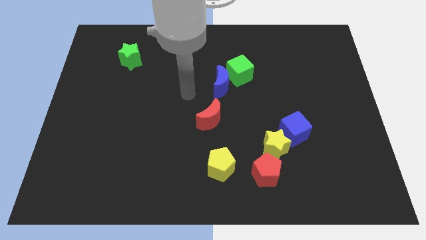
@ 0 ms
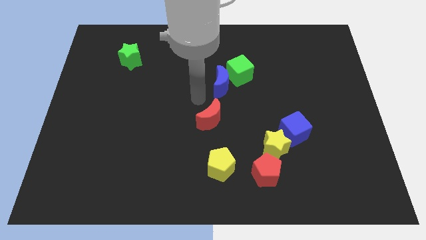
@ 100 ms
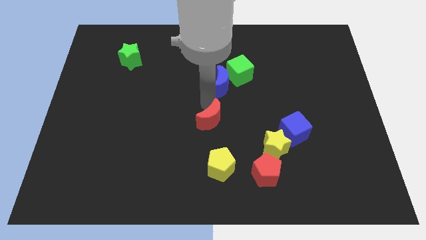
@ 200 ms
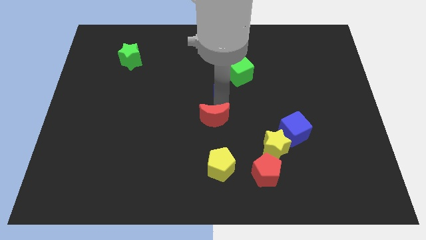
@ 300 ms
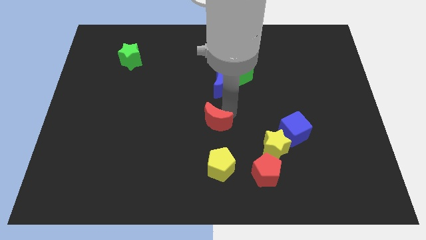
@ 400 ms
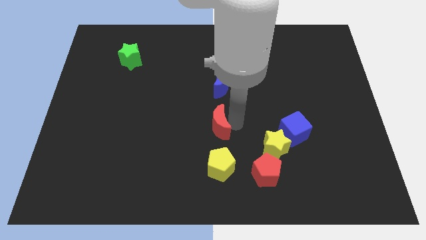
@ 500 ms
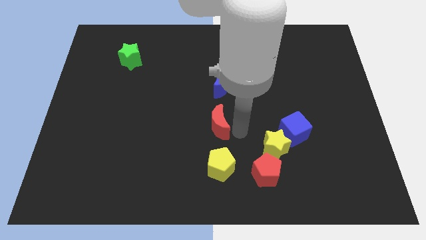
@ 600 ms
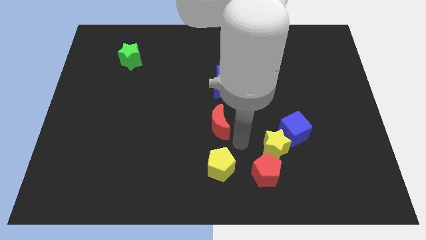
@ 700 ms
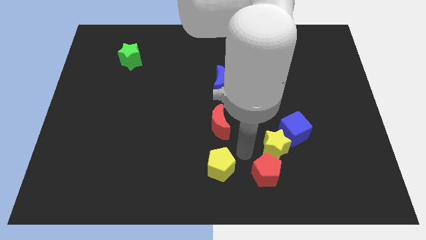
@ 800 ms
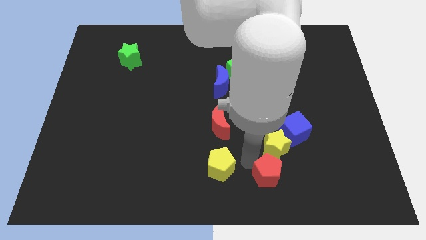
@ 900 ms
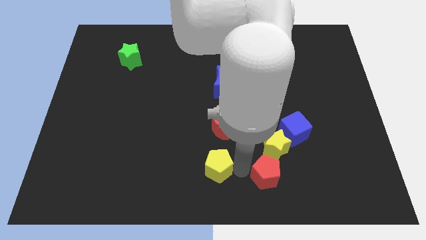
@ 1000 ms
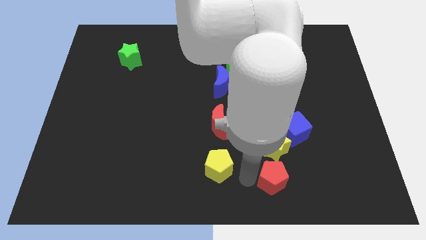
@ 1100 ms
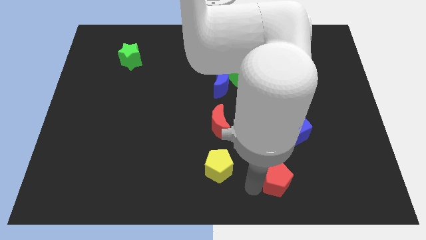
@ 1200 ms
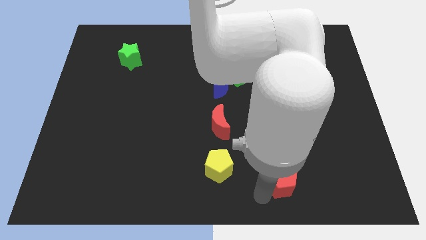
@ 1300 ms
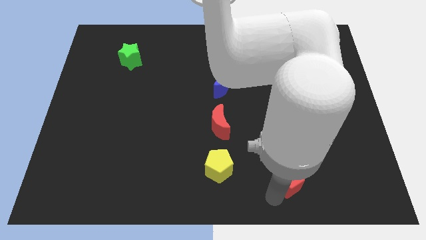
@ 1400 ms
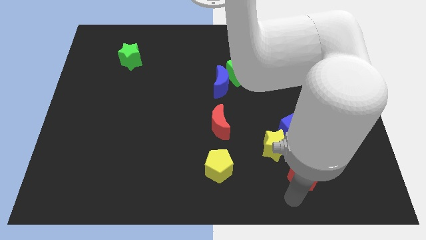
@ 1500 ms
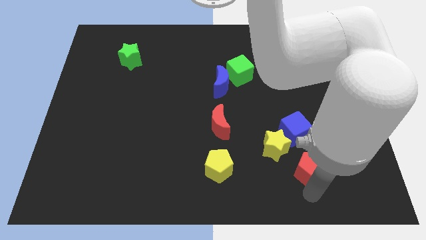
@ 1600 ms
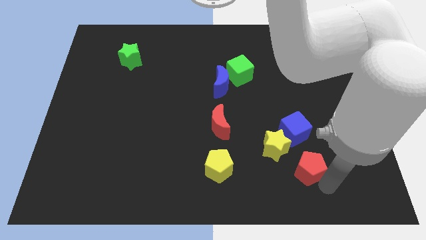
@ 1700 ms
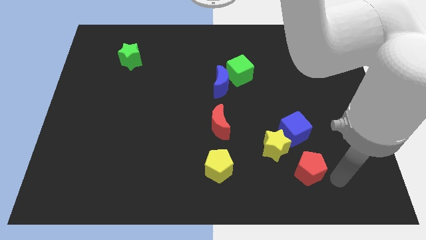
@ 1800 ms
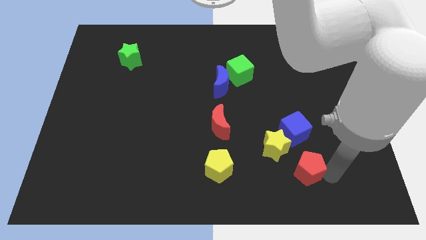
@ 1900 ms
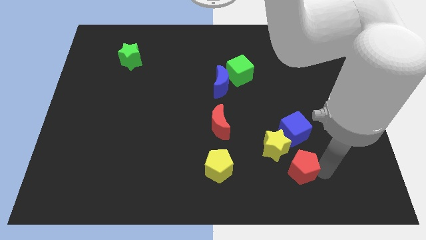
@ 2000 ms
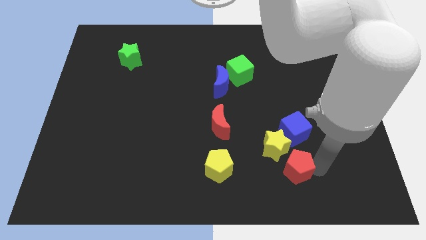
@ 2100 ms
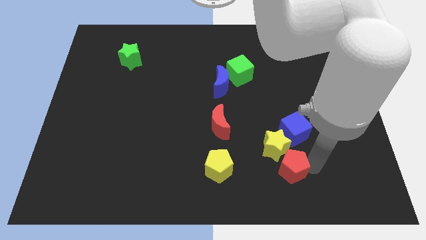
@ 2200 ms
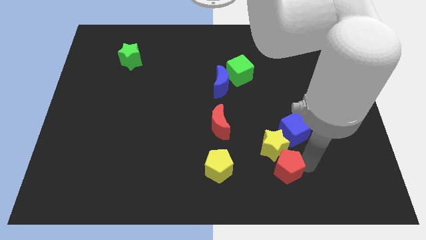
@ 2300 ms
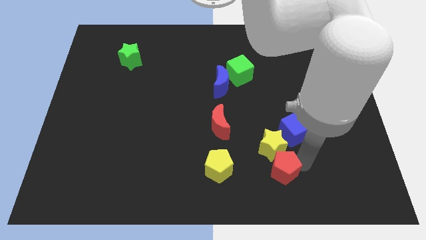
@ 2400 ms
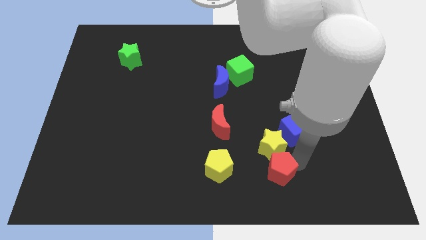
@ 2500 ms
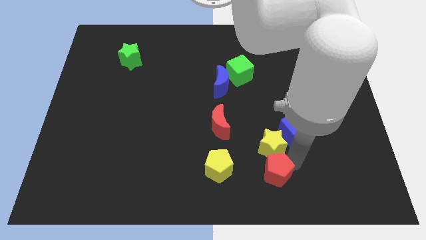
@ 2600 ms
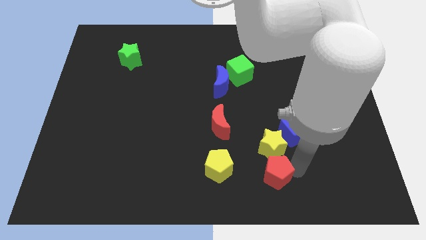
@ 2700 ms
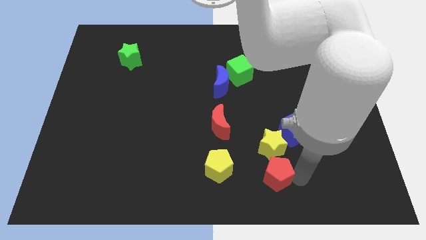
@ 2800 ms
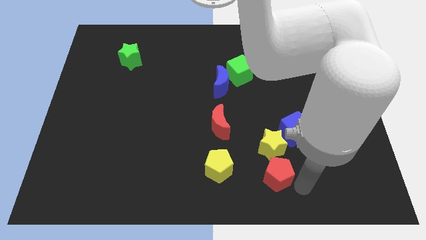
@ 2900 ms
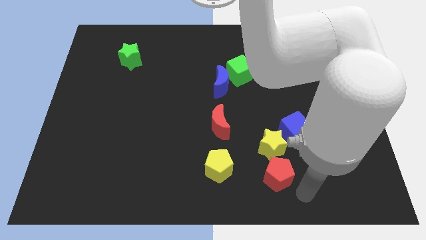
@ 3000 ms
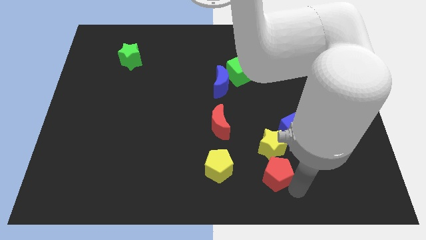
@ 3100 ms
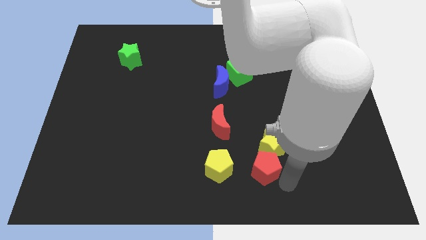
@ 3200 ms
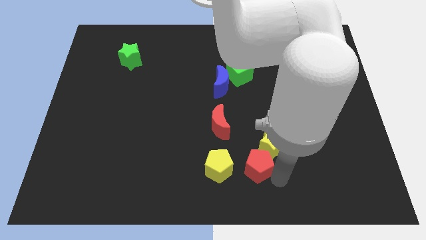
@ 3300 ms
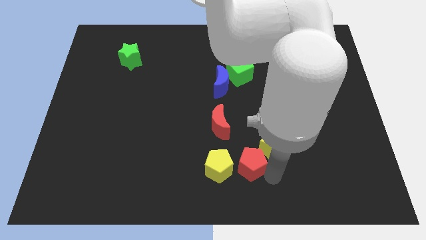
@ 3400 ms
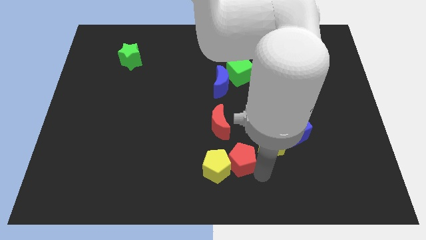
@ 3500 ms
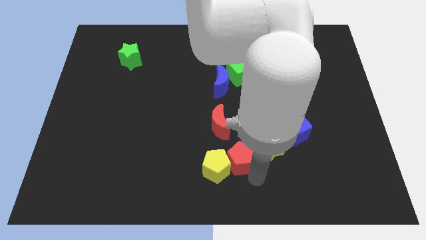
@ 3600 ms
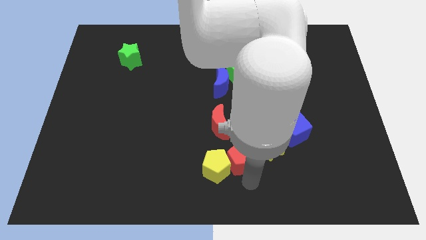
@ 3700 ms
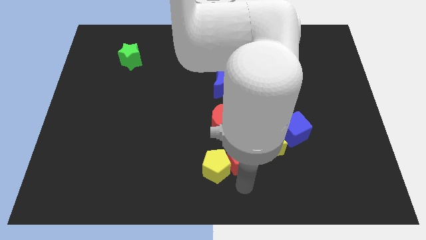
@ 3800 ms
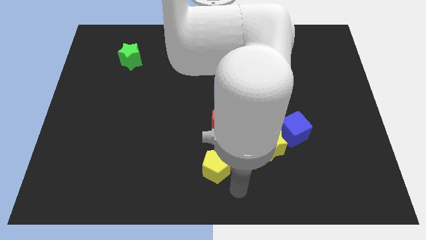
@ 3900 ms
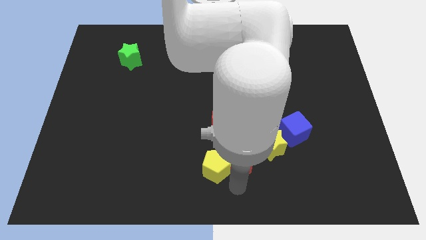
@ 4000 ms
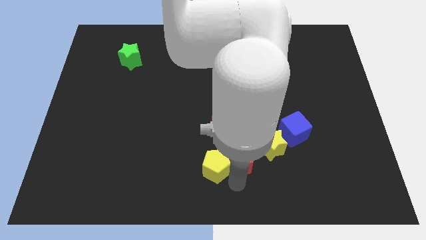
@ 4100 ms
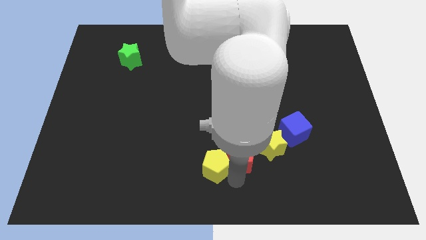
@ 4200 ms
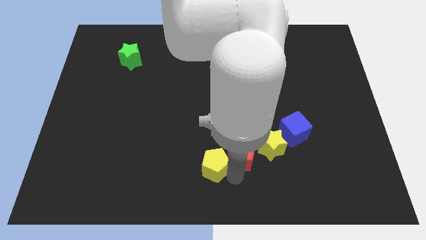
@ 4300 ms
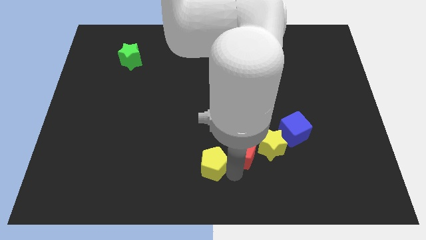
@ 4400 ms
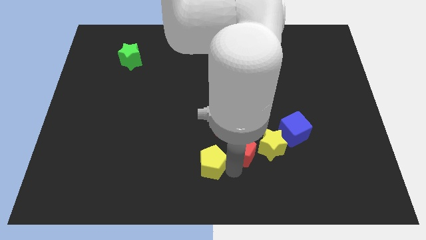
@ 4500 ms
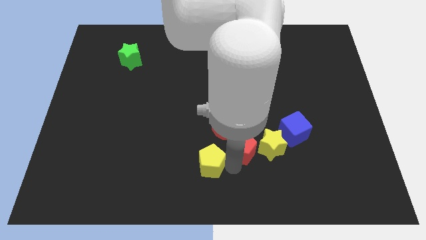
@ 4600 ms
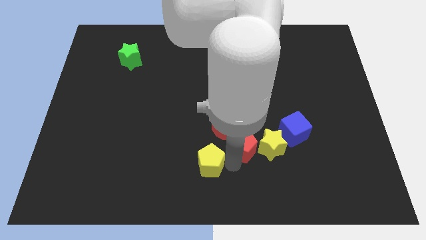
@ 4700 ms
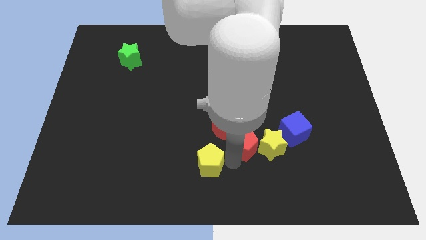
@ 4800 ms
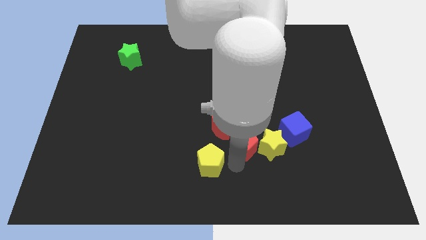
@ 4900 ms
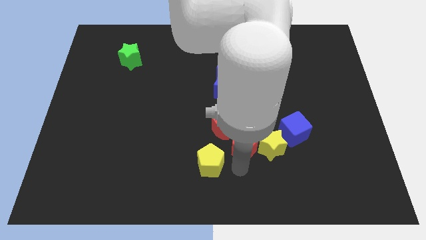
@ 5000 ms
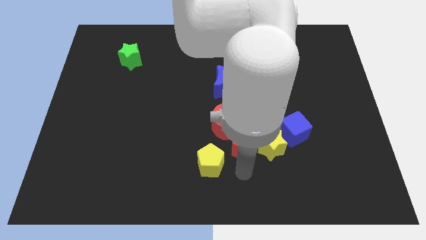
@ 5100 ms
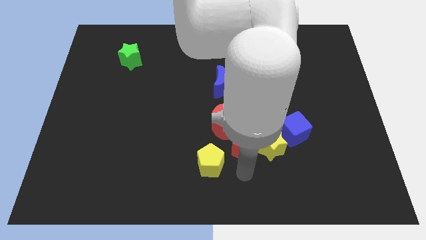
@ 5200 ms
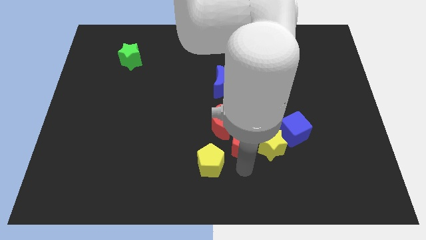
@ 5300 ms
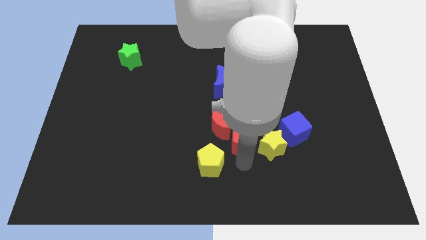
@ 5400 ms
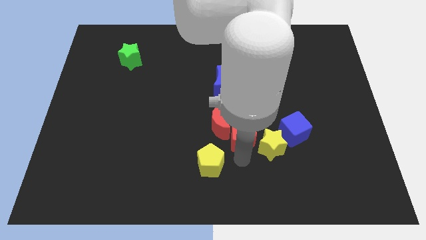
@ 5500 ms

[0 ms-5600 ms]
push the red pentagon a little upwards

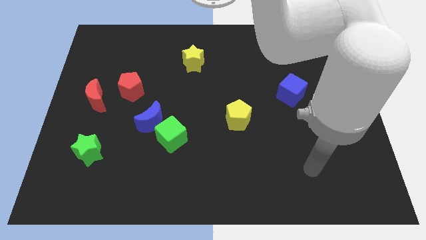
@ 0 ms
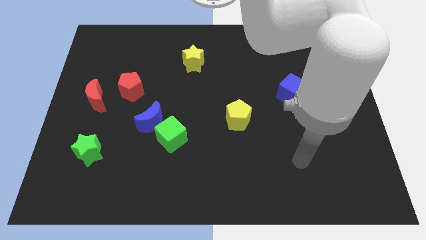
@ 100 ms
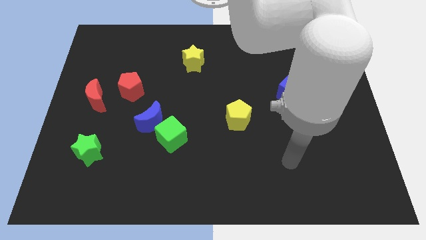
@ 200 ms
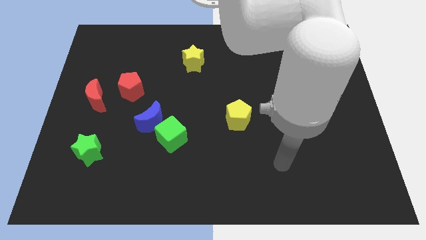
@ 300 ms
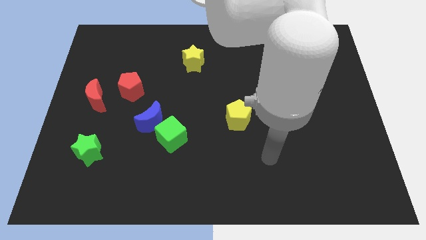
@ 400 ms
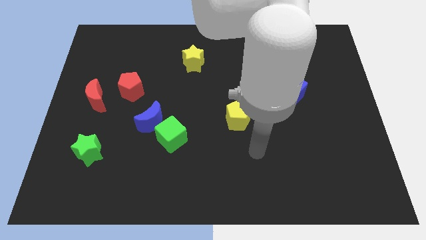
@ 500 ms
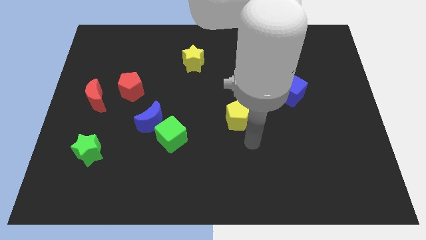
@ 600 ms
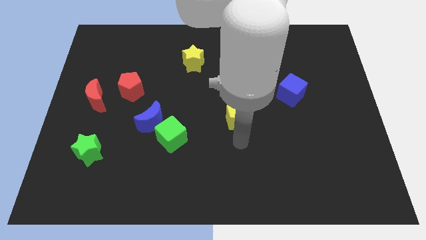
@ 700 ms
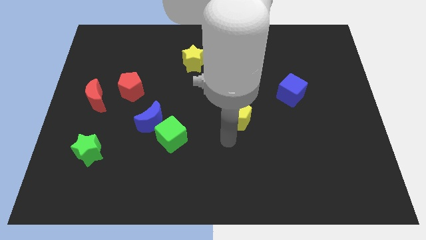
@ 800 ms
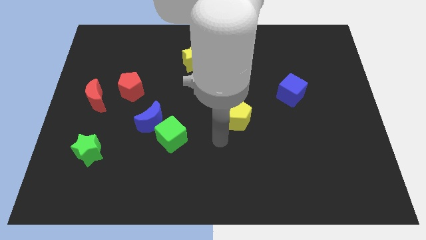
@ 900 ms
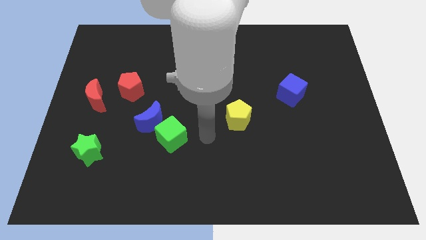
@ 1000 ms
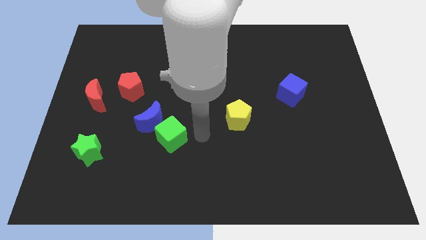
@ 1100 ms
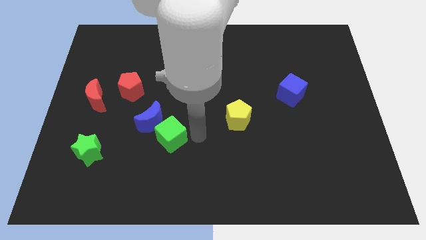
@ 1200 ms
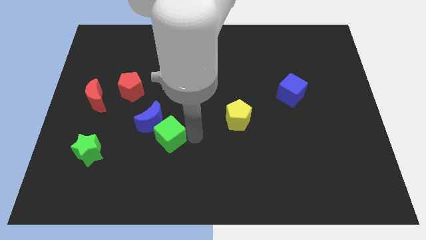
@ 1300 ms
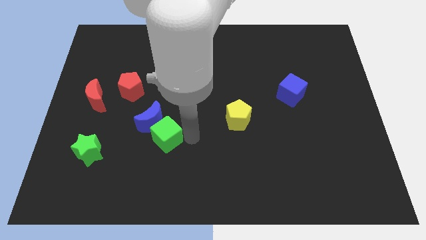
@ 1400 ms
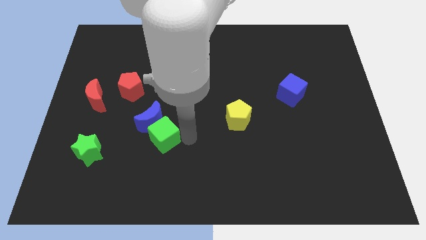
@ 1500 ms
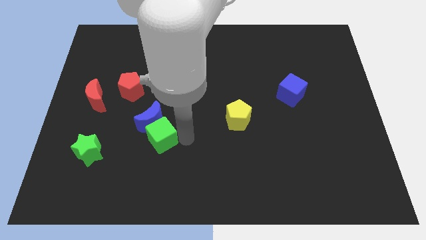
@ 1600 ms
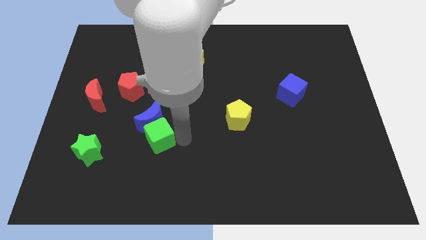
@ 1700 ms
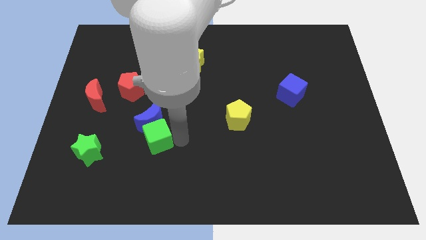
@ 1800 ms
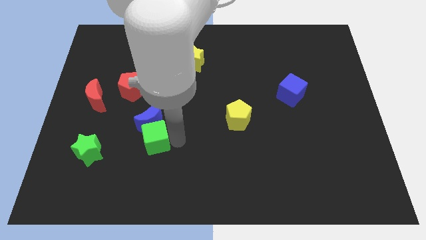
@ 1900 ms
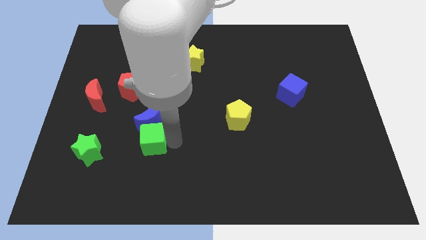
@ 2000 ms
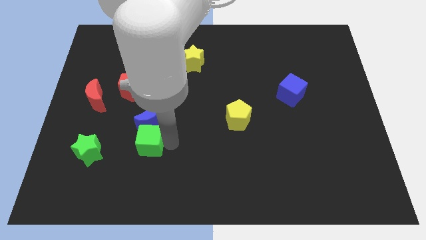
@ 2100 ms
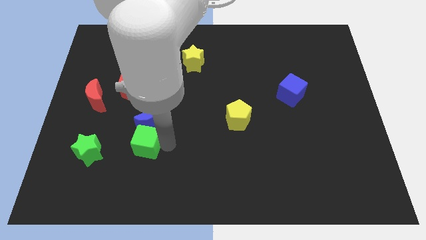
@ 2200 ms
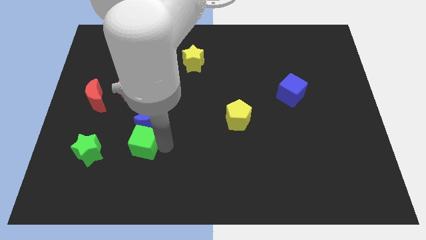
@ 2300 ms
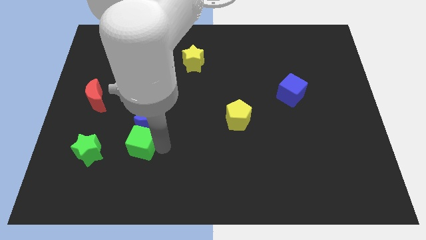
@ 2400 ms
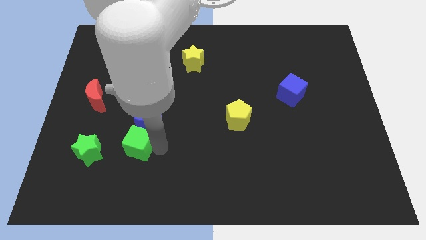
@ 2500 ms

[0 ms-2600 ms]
push the green cube to the left slightly

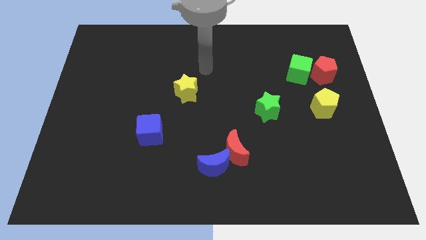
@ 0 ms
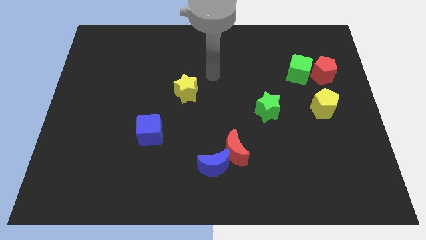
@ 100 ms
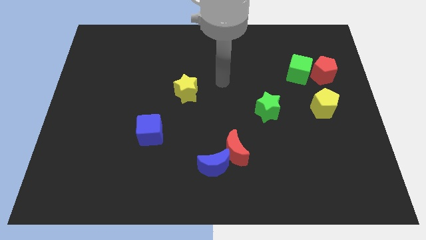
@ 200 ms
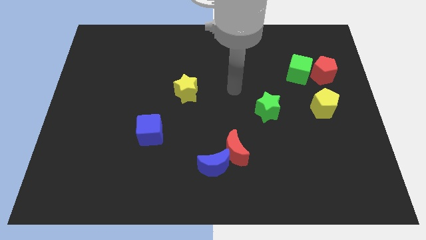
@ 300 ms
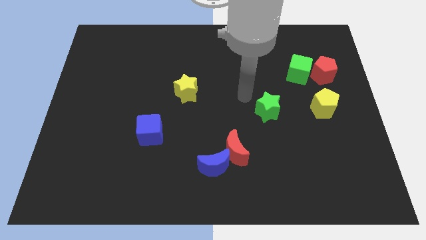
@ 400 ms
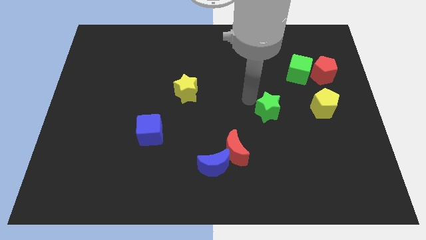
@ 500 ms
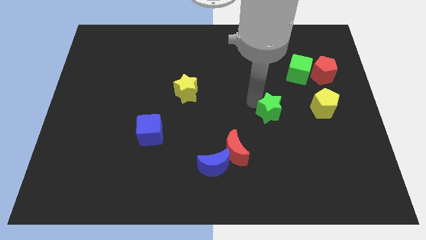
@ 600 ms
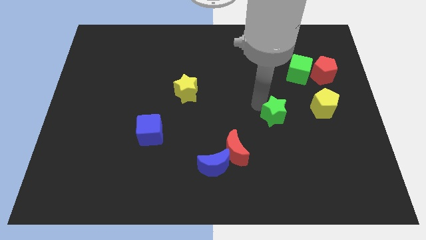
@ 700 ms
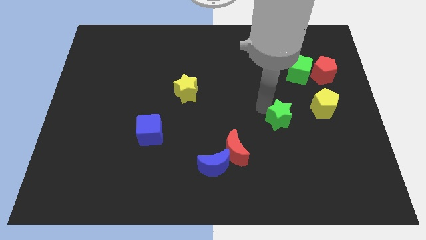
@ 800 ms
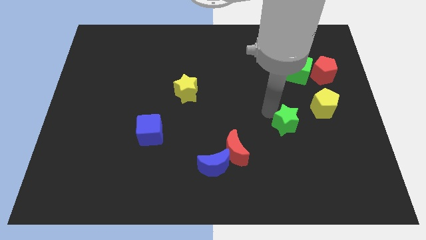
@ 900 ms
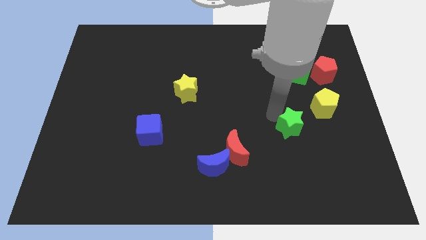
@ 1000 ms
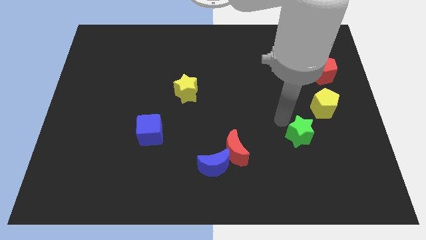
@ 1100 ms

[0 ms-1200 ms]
move the green star downwards and then right a little
